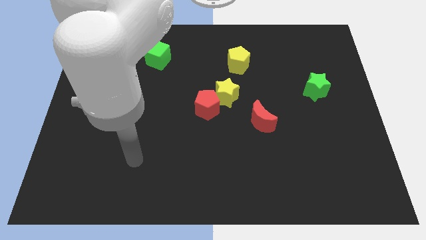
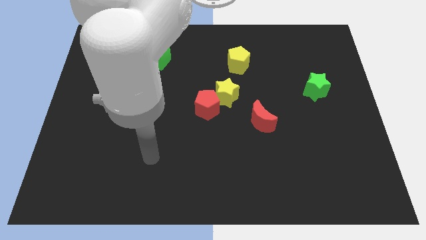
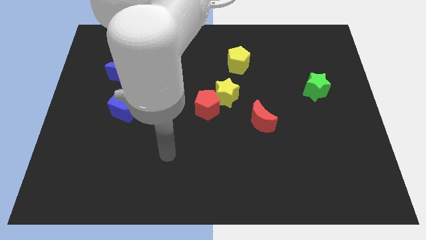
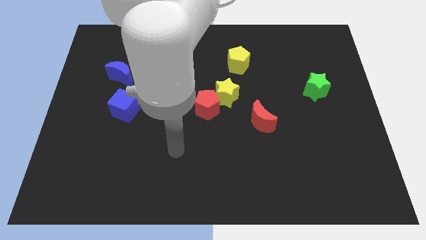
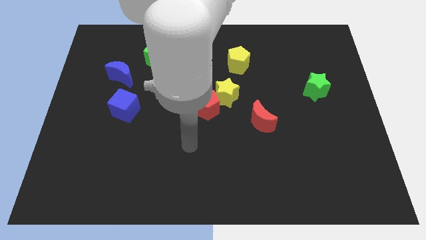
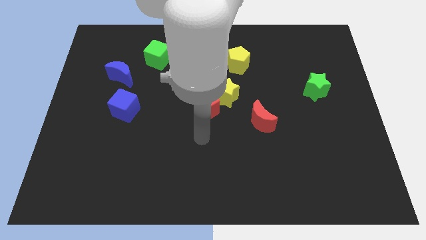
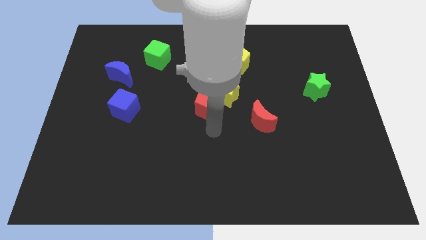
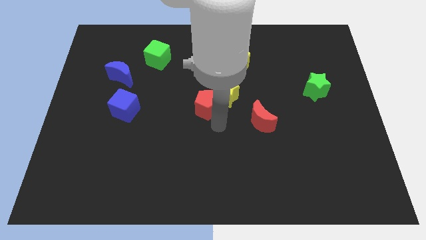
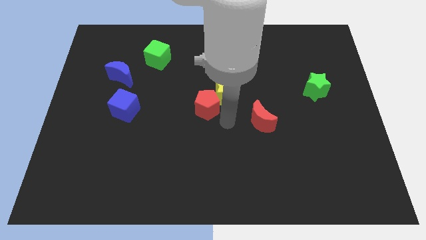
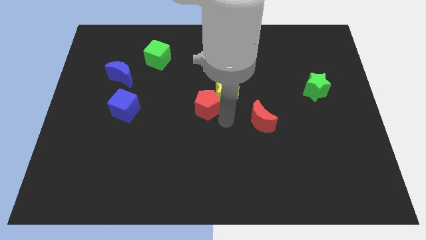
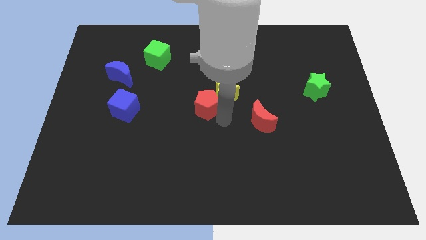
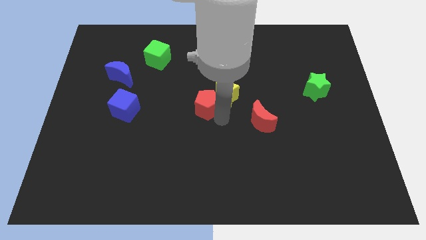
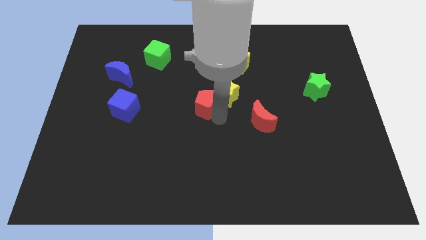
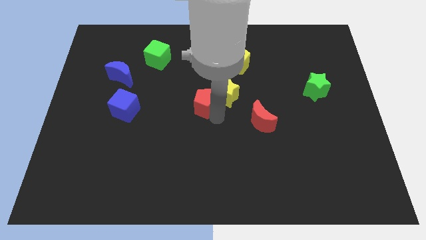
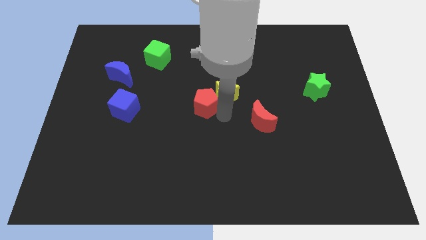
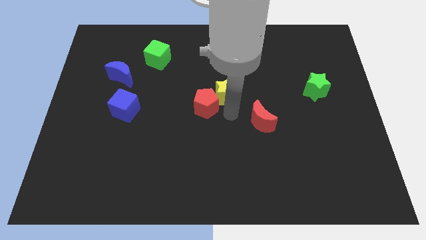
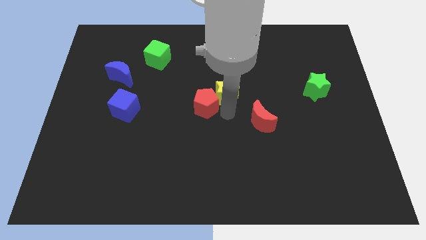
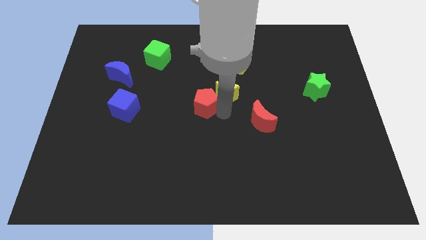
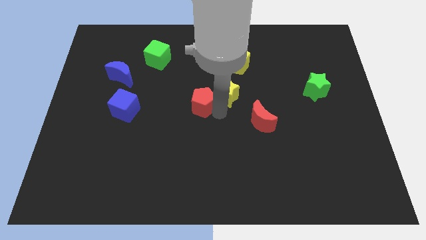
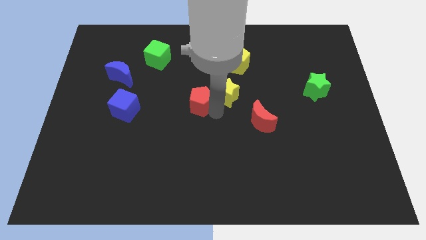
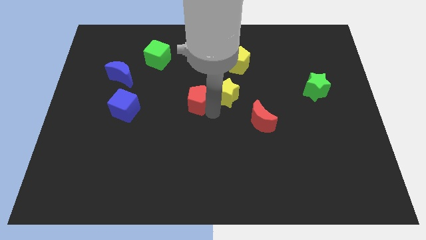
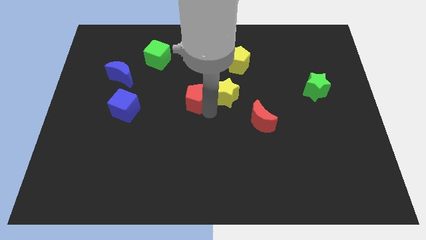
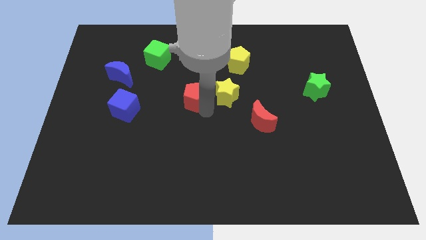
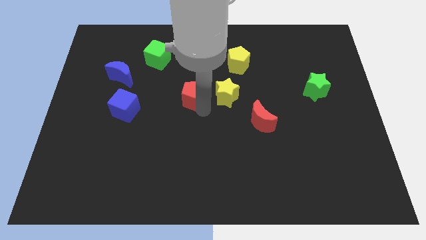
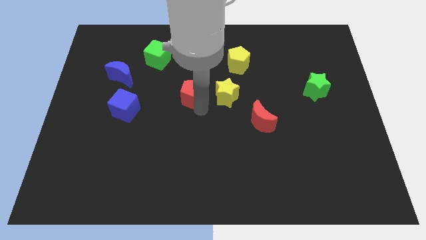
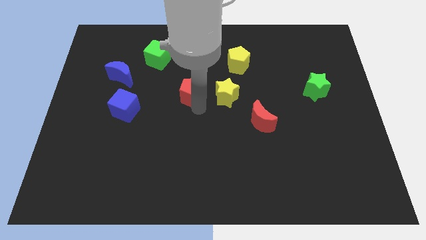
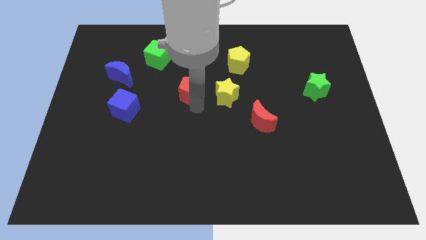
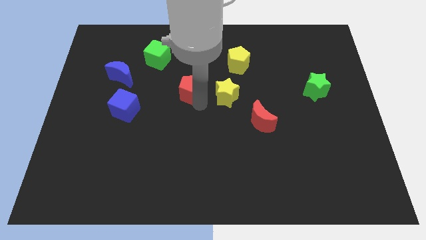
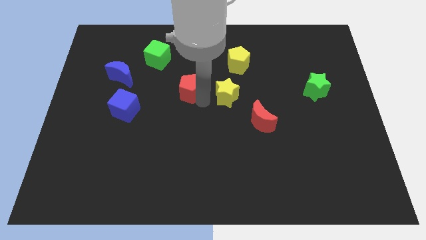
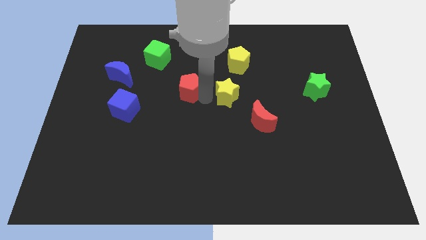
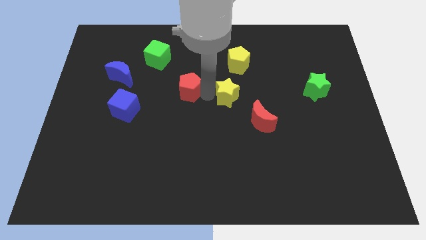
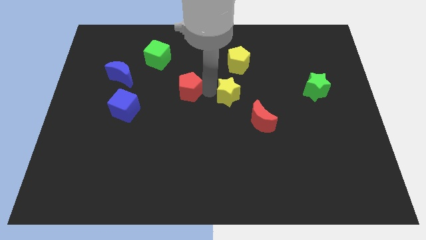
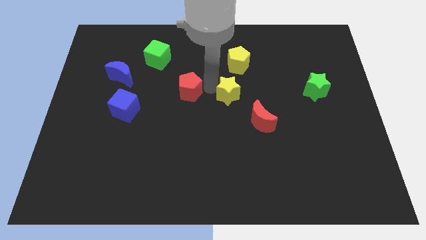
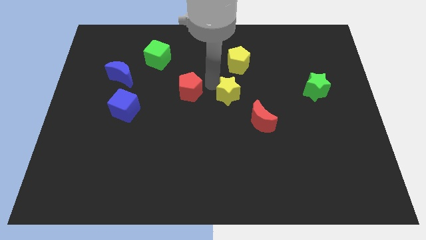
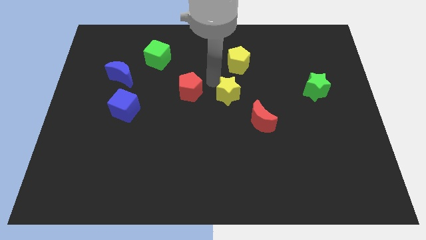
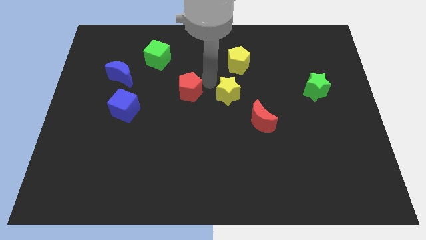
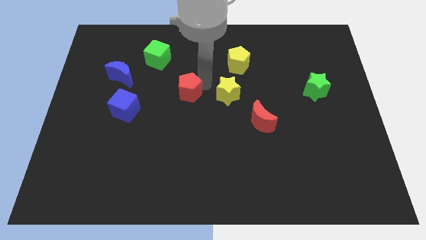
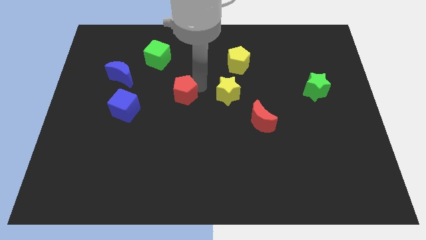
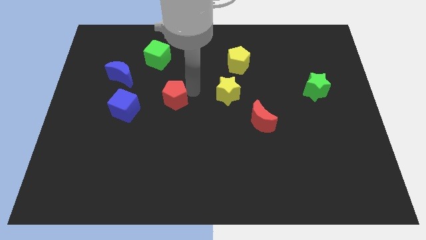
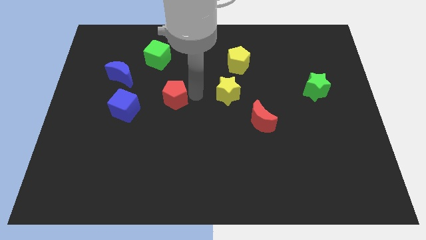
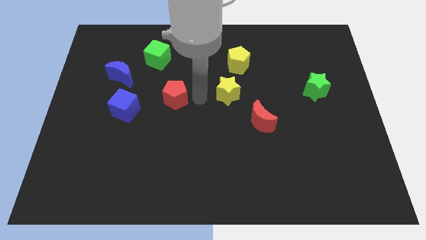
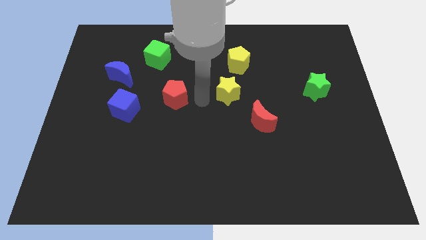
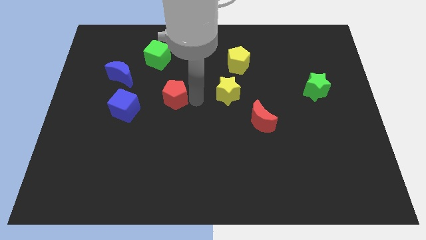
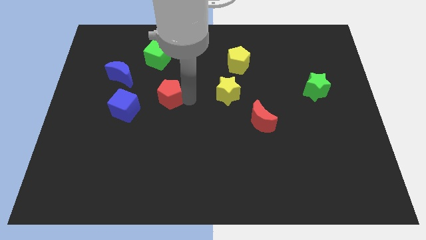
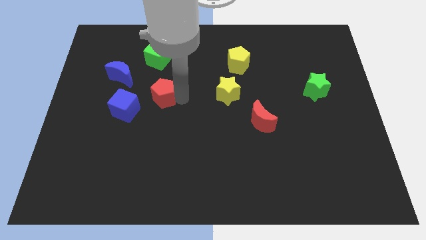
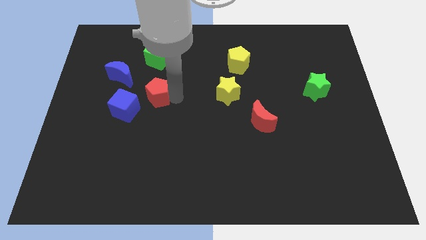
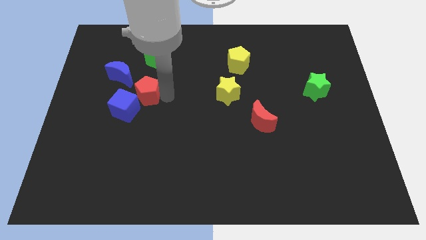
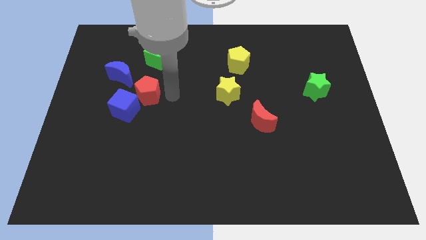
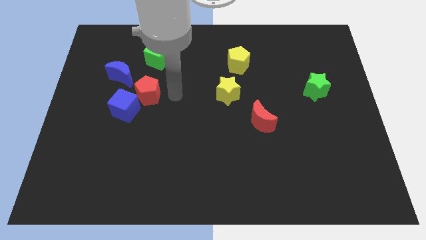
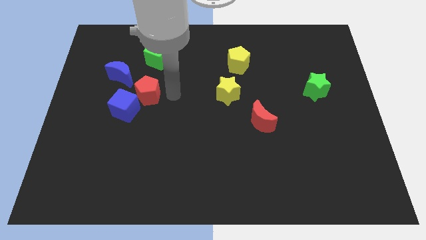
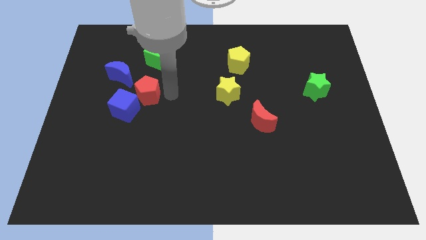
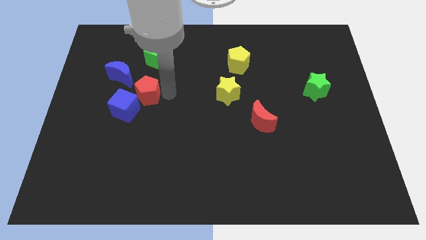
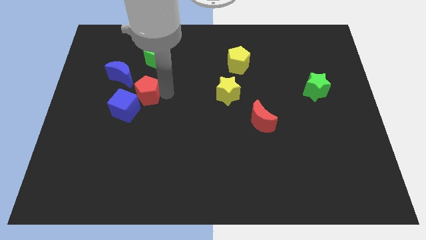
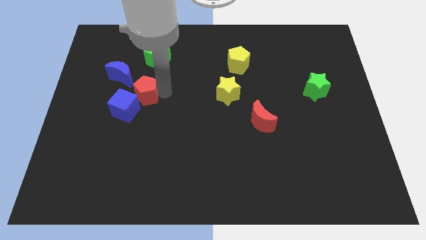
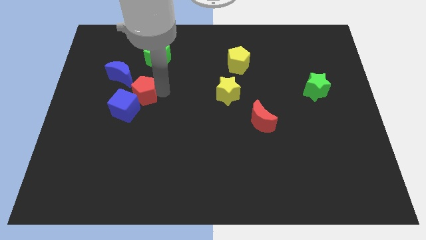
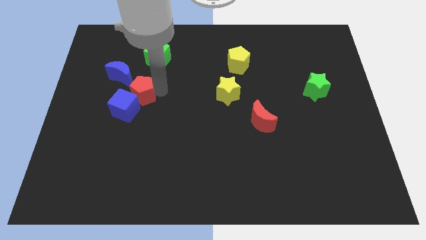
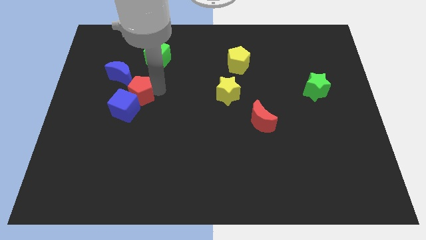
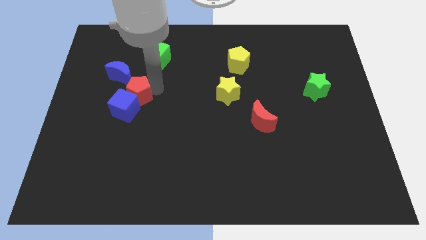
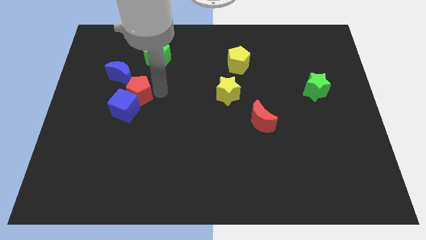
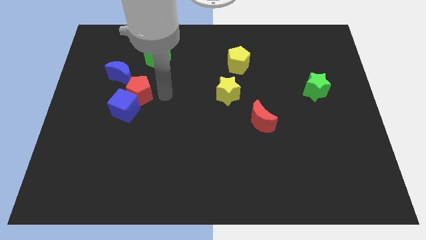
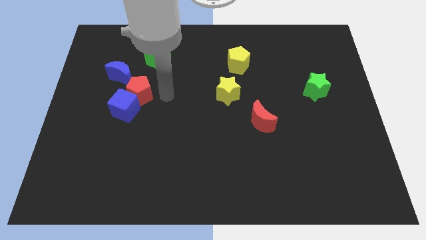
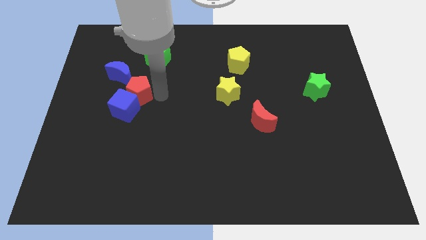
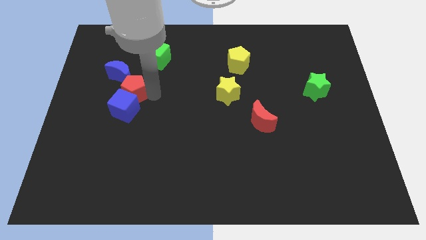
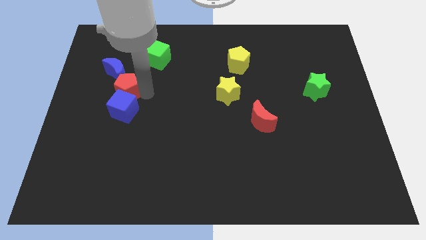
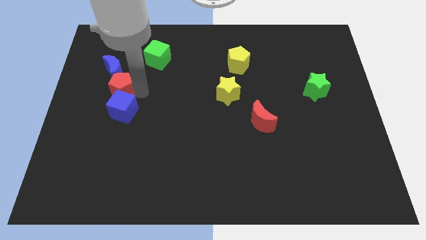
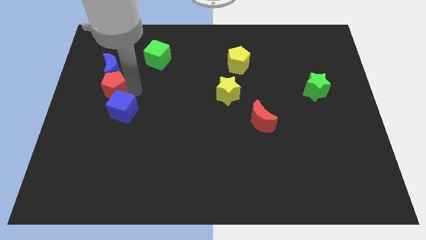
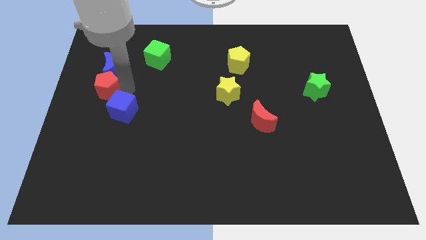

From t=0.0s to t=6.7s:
slide the red pentagon to the left side
